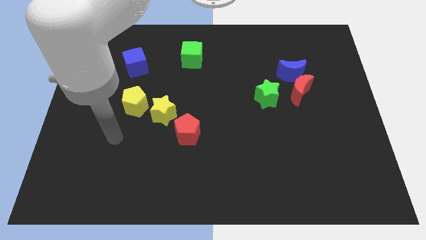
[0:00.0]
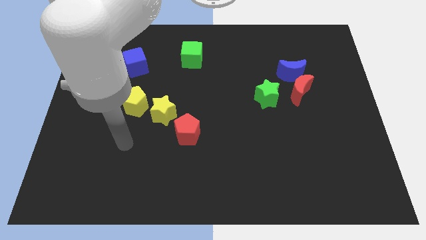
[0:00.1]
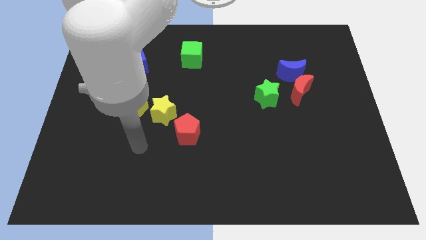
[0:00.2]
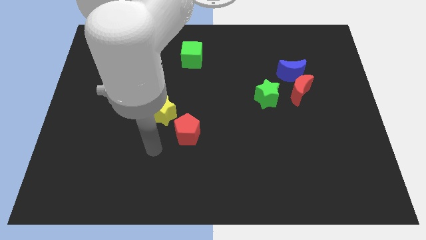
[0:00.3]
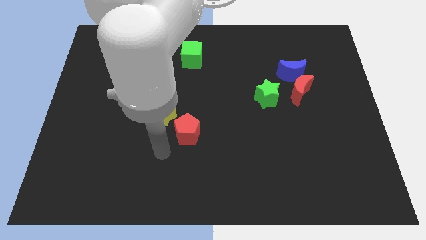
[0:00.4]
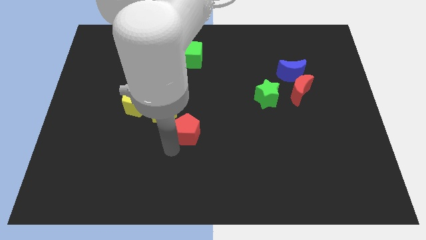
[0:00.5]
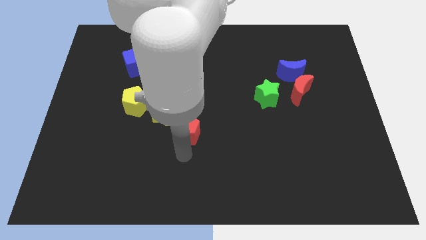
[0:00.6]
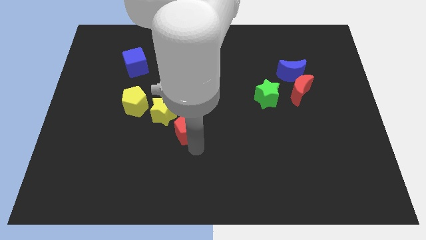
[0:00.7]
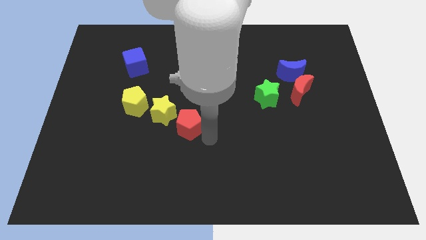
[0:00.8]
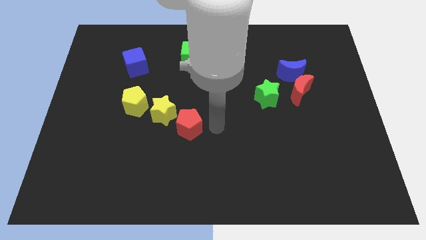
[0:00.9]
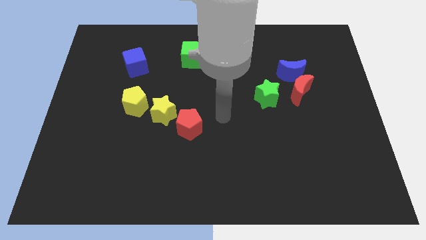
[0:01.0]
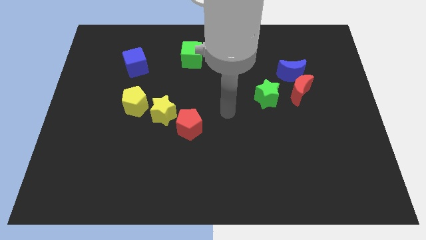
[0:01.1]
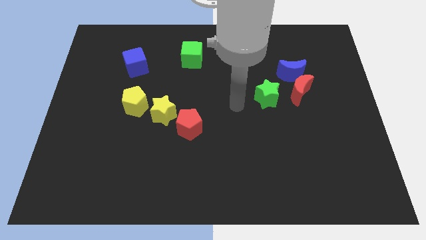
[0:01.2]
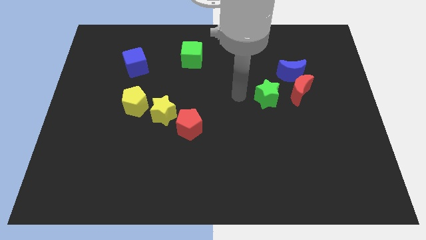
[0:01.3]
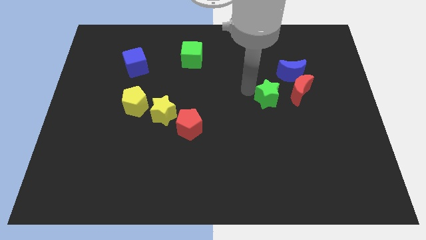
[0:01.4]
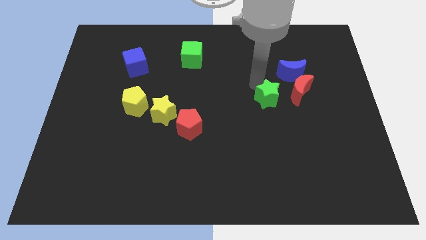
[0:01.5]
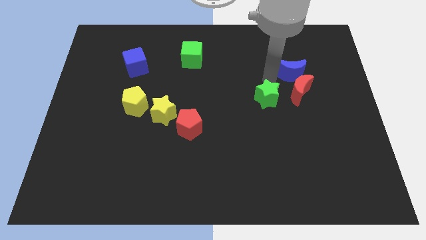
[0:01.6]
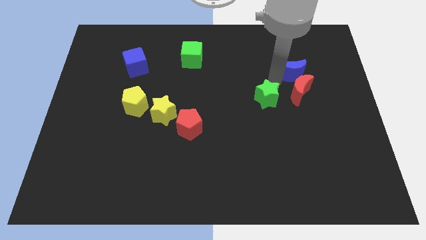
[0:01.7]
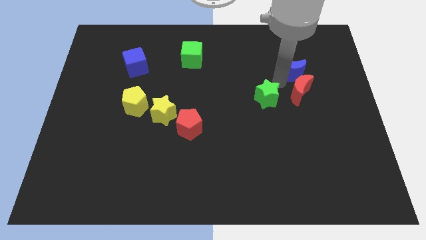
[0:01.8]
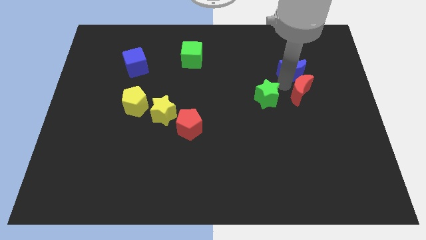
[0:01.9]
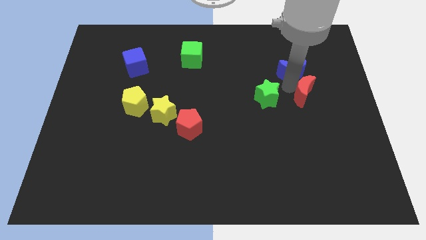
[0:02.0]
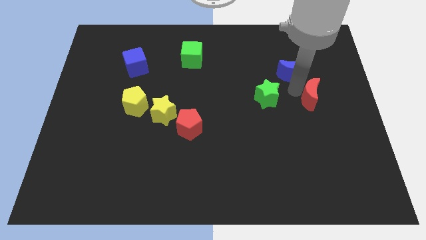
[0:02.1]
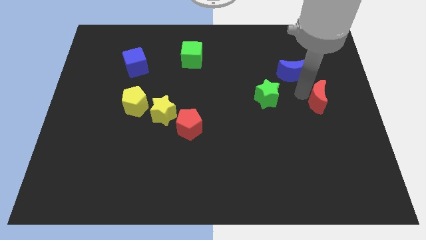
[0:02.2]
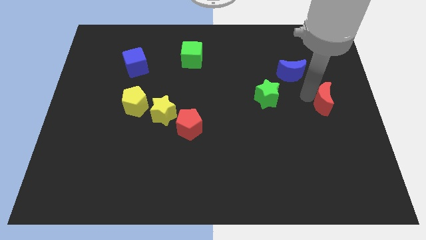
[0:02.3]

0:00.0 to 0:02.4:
pull the red moon apart from the blue moon and green star

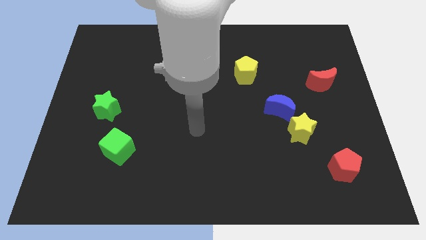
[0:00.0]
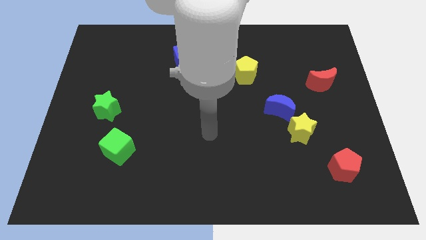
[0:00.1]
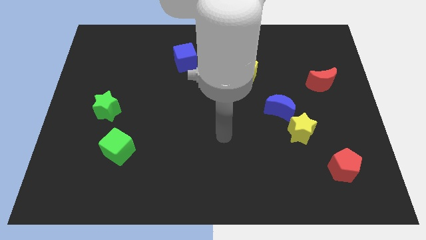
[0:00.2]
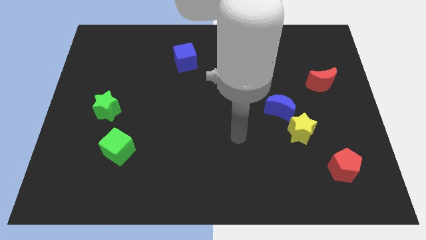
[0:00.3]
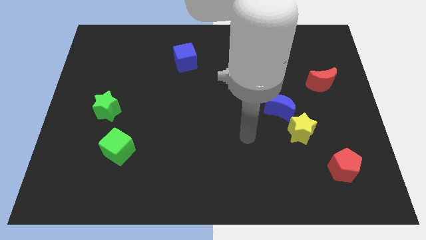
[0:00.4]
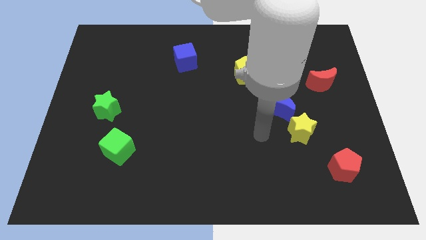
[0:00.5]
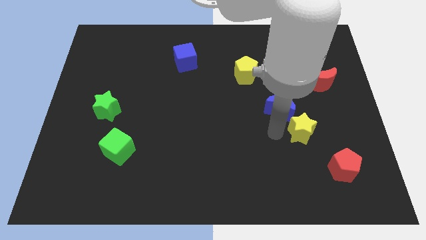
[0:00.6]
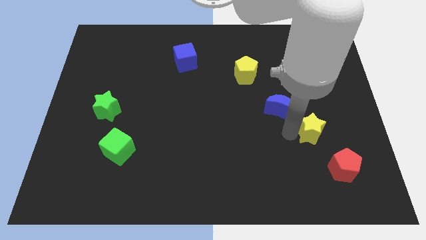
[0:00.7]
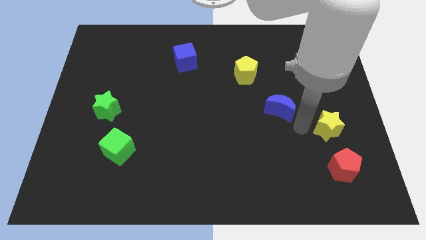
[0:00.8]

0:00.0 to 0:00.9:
move the blue moon away from the yellow star

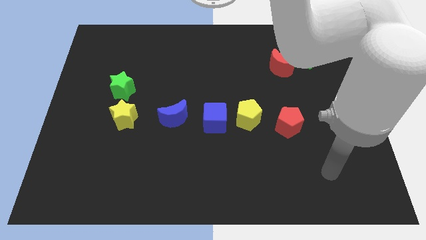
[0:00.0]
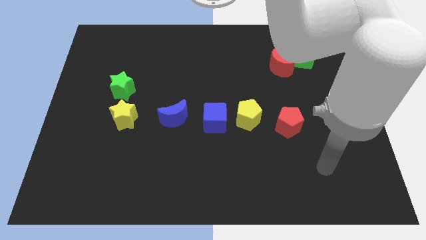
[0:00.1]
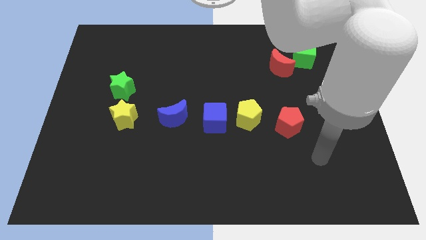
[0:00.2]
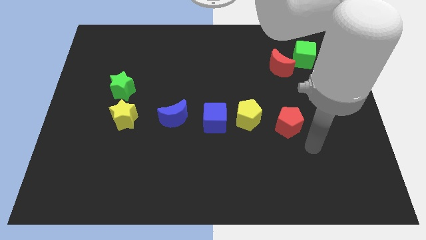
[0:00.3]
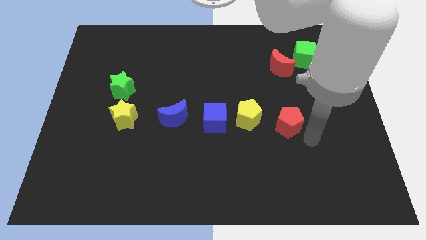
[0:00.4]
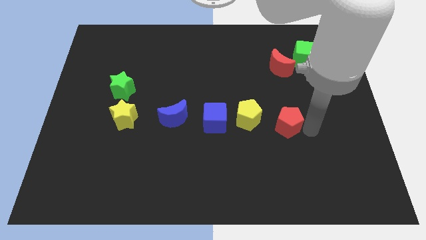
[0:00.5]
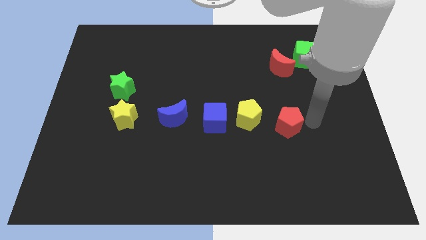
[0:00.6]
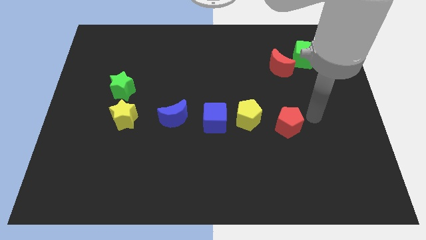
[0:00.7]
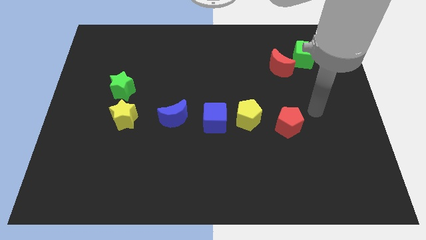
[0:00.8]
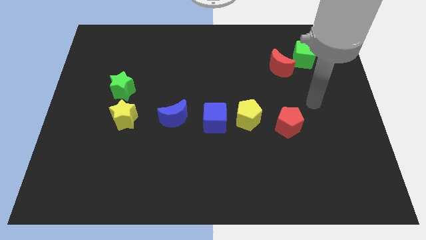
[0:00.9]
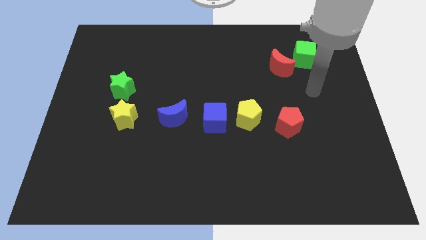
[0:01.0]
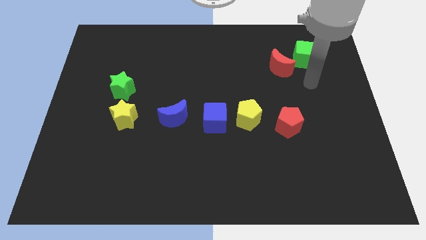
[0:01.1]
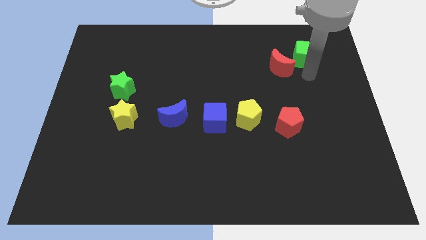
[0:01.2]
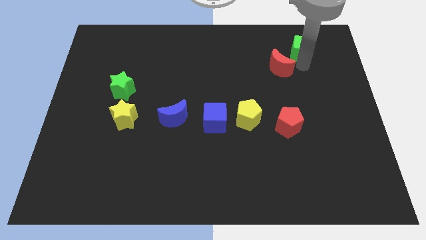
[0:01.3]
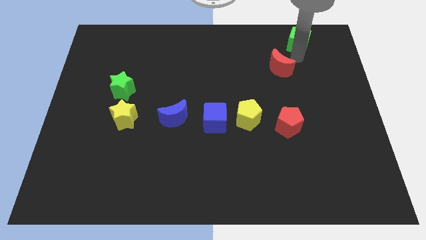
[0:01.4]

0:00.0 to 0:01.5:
pull the red moon apart from the green cube

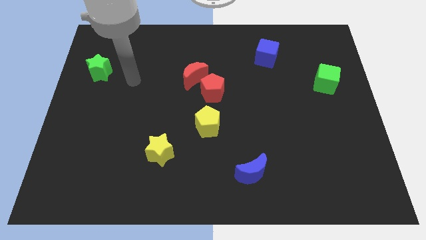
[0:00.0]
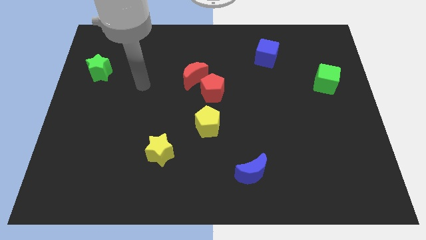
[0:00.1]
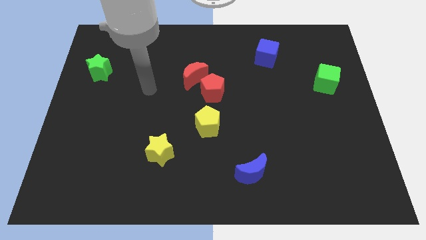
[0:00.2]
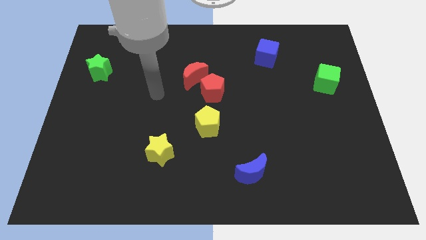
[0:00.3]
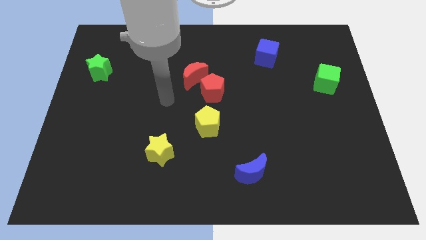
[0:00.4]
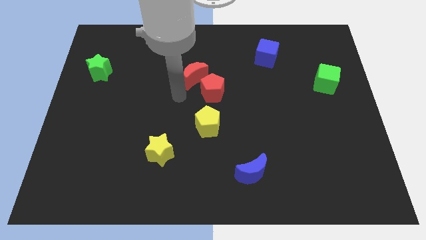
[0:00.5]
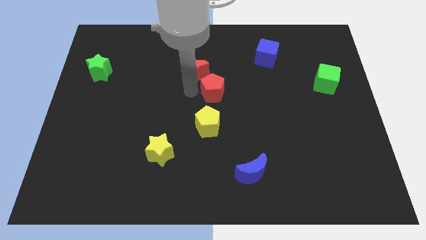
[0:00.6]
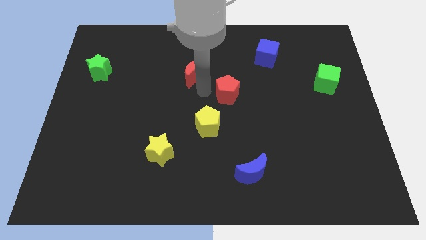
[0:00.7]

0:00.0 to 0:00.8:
move the red moon away from the red pentagon

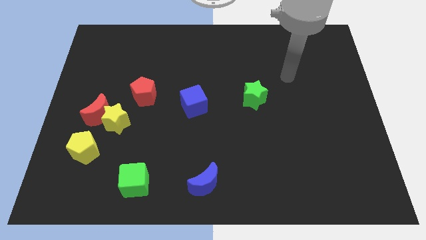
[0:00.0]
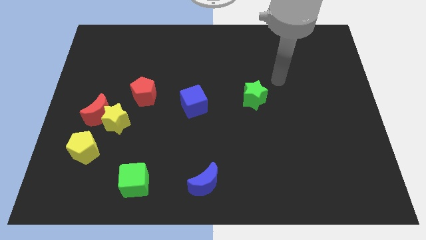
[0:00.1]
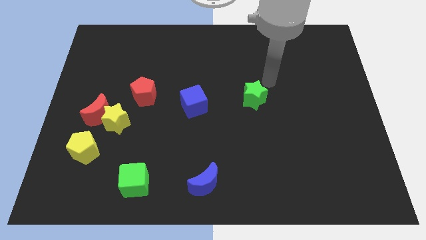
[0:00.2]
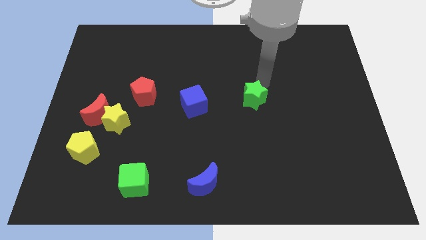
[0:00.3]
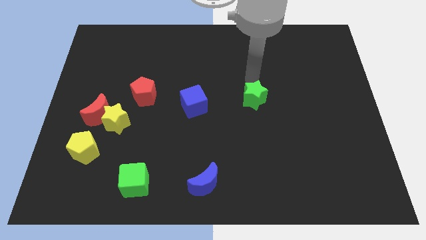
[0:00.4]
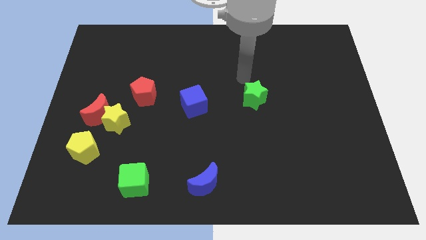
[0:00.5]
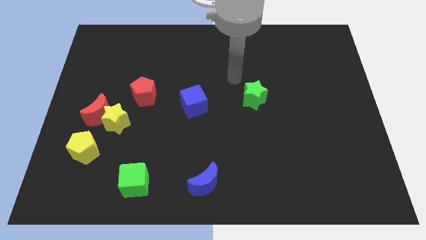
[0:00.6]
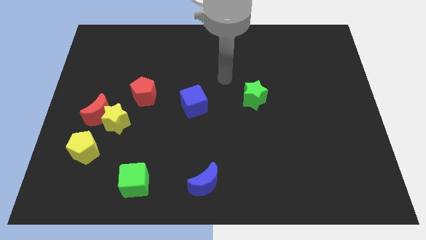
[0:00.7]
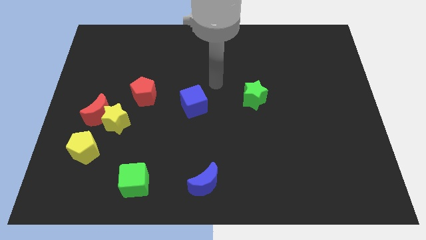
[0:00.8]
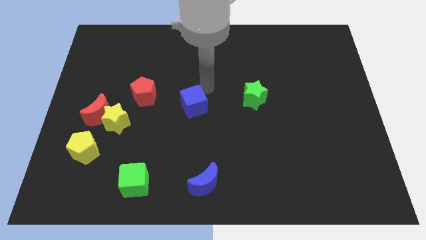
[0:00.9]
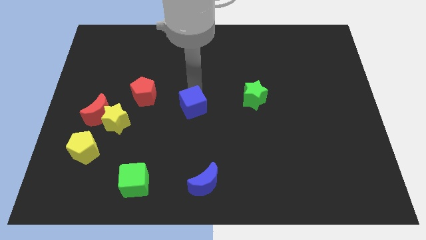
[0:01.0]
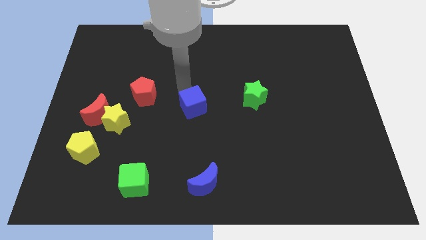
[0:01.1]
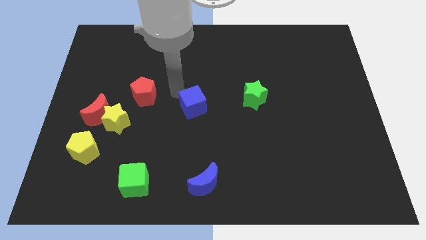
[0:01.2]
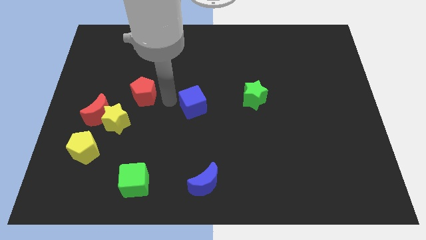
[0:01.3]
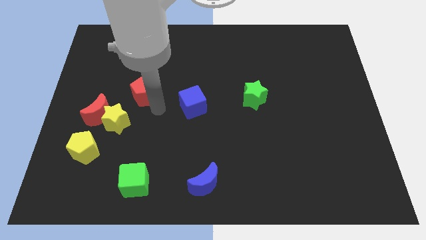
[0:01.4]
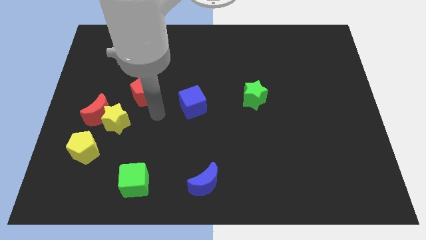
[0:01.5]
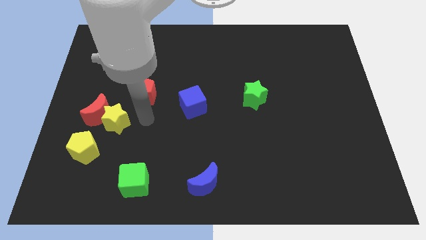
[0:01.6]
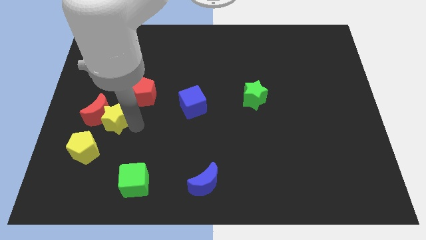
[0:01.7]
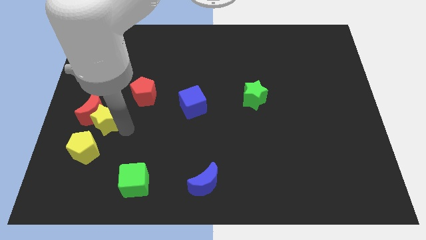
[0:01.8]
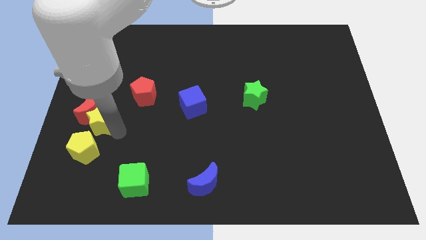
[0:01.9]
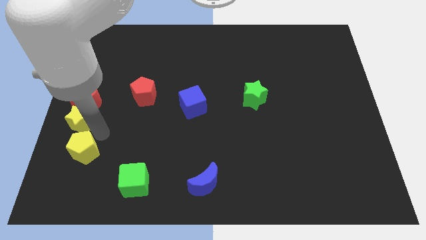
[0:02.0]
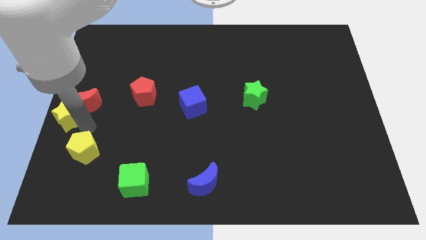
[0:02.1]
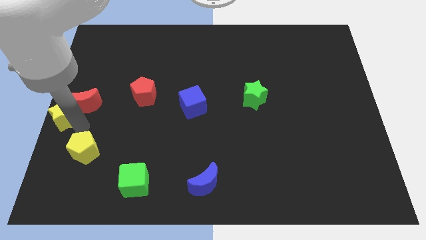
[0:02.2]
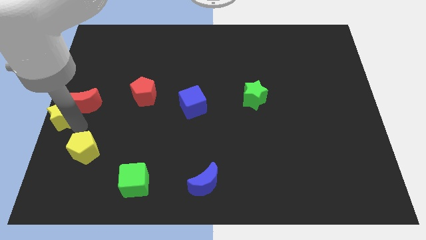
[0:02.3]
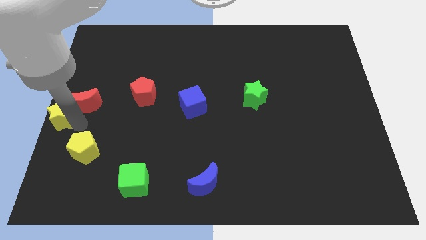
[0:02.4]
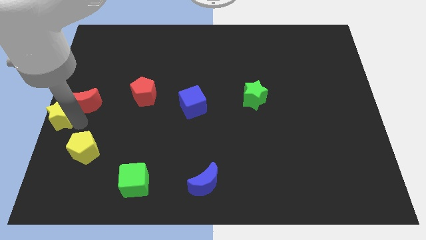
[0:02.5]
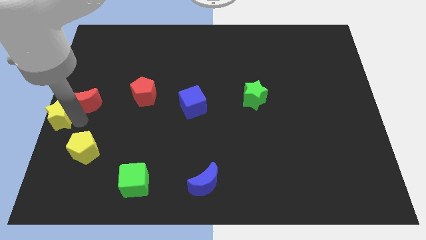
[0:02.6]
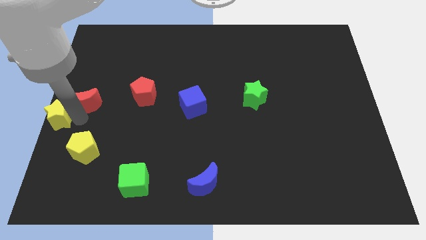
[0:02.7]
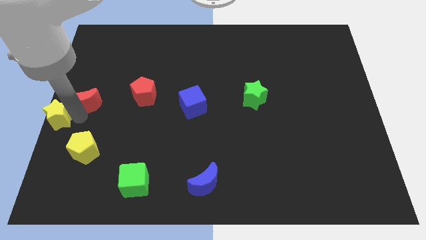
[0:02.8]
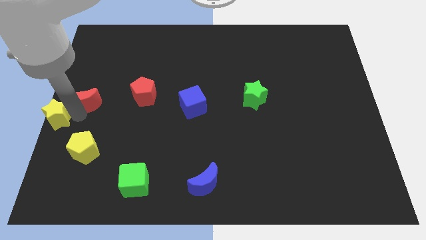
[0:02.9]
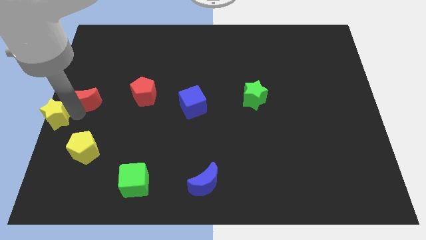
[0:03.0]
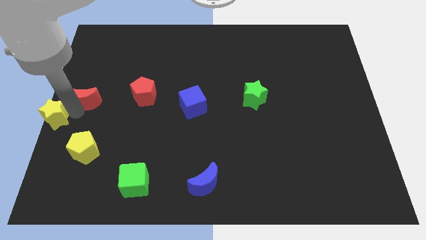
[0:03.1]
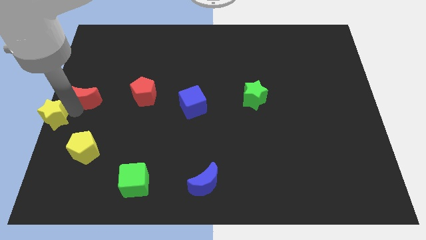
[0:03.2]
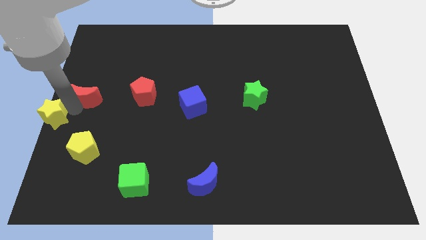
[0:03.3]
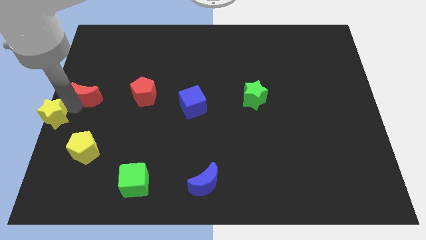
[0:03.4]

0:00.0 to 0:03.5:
pull the red moon apart from the yellow star and yellow pentagon

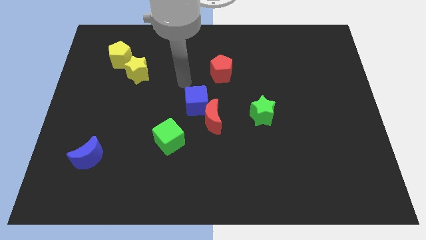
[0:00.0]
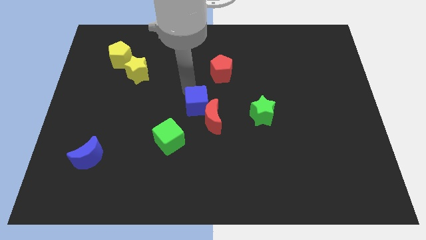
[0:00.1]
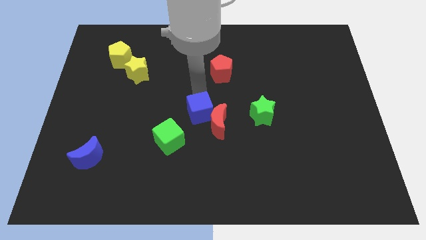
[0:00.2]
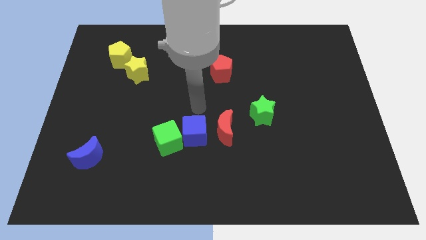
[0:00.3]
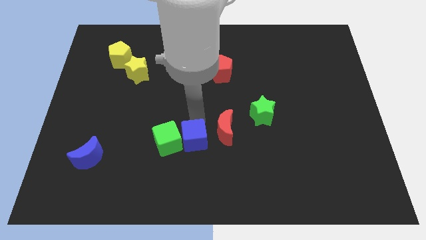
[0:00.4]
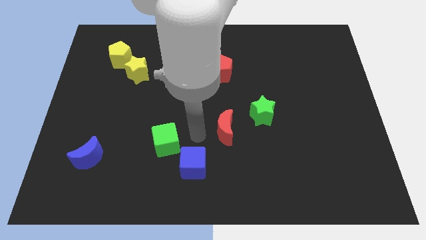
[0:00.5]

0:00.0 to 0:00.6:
move the red moon away from the blue cube
